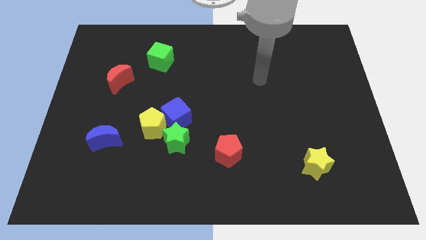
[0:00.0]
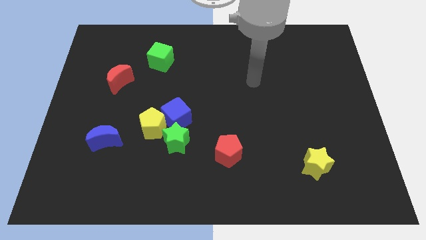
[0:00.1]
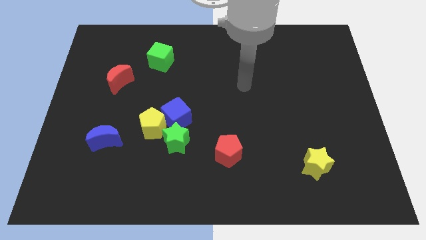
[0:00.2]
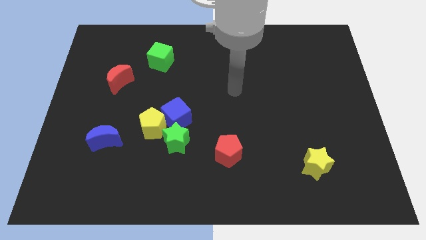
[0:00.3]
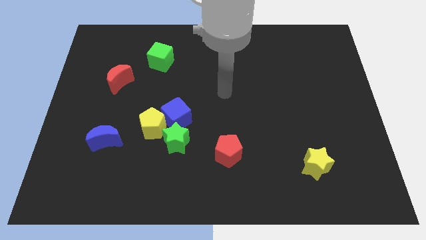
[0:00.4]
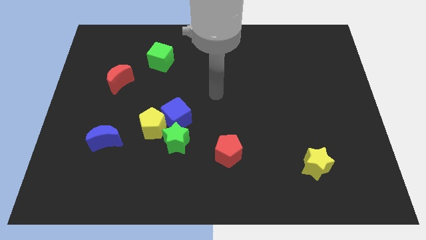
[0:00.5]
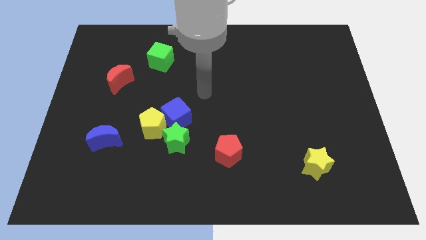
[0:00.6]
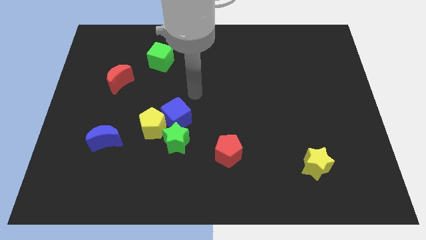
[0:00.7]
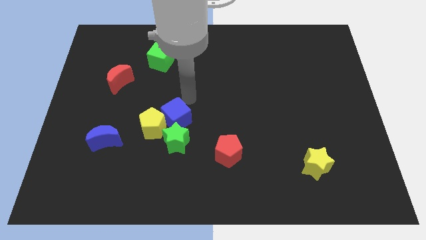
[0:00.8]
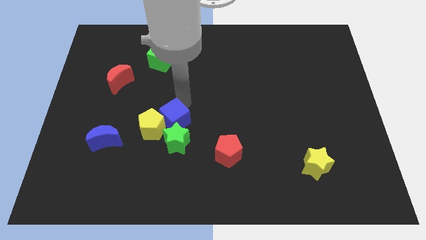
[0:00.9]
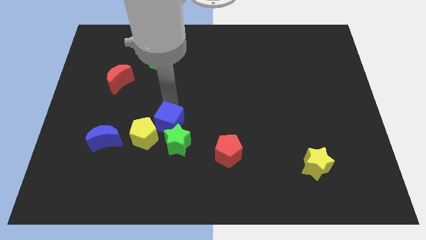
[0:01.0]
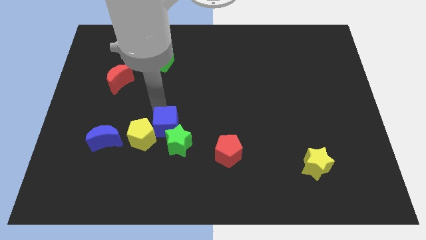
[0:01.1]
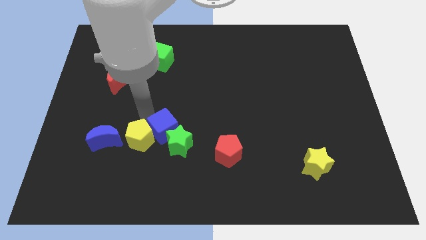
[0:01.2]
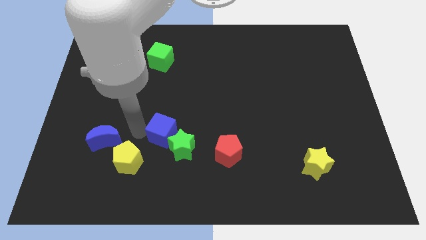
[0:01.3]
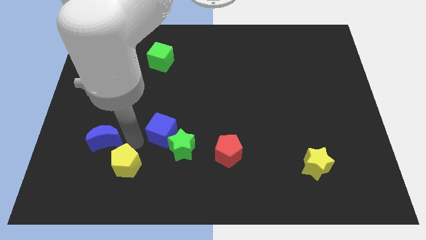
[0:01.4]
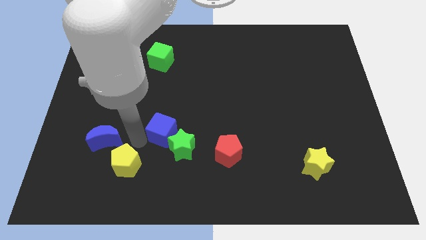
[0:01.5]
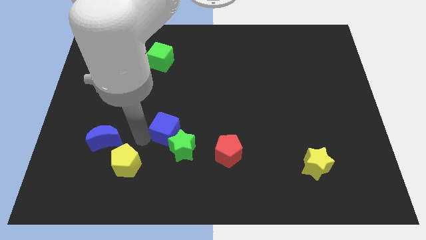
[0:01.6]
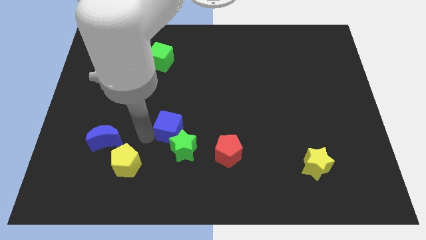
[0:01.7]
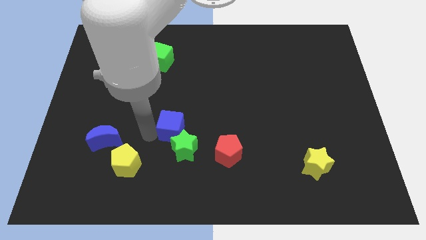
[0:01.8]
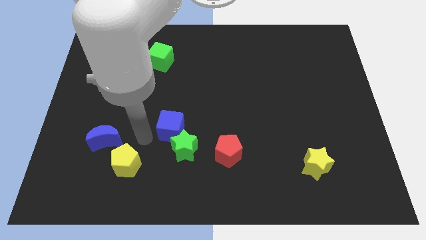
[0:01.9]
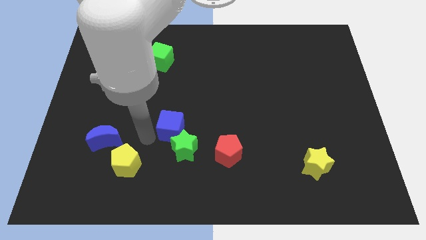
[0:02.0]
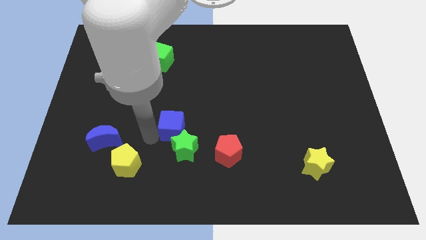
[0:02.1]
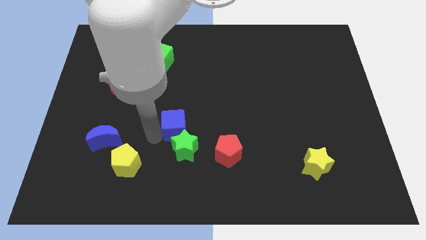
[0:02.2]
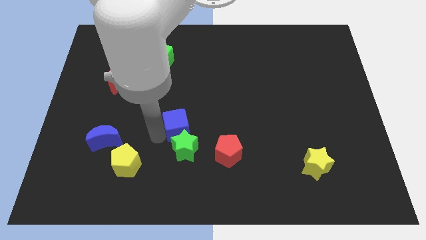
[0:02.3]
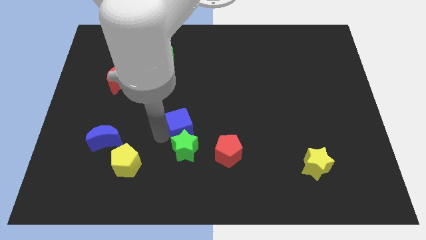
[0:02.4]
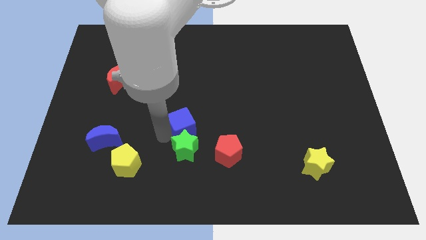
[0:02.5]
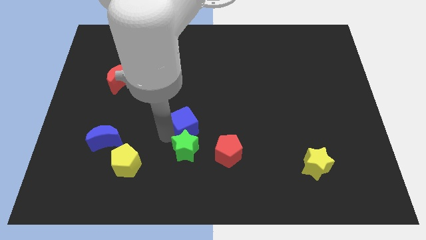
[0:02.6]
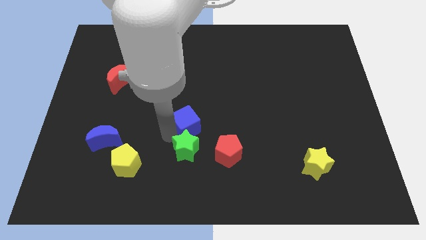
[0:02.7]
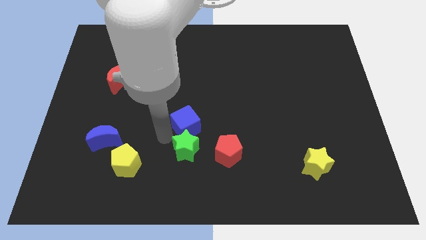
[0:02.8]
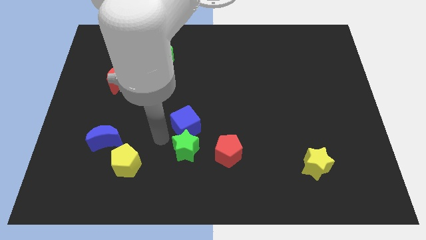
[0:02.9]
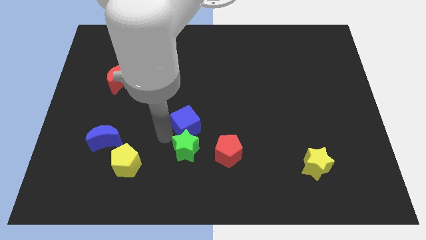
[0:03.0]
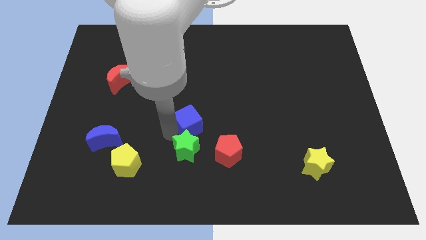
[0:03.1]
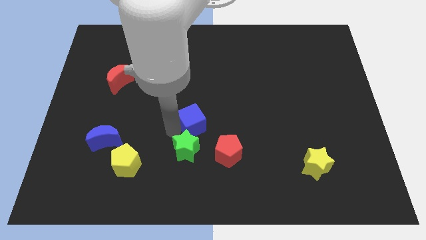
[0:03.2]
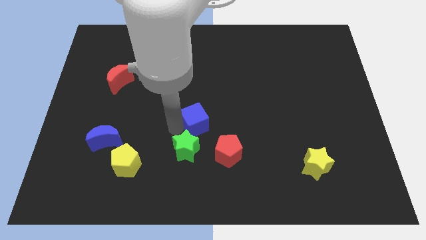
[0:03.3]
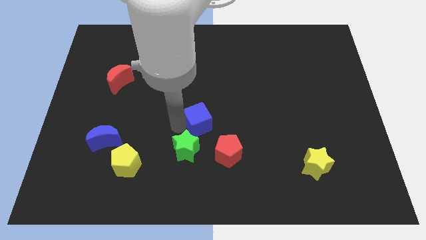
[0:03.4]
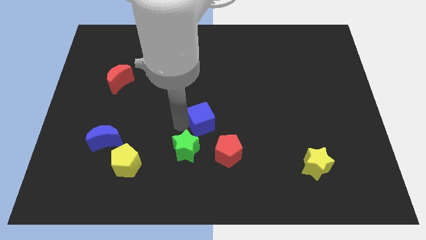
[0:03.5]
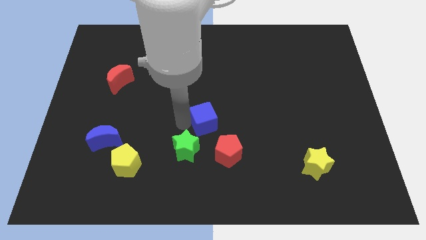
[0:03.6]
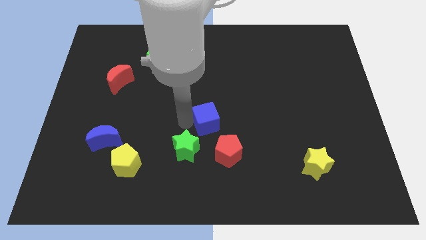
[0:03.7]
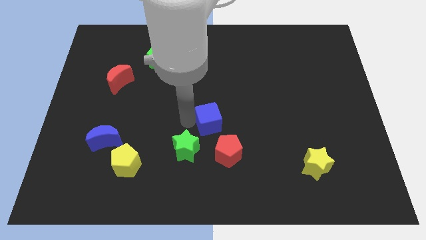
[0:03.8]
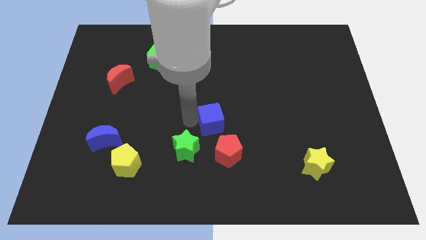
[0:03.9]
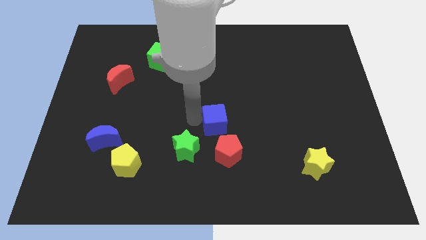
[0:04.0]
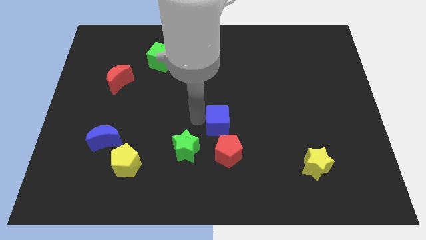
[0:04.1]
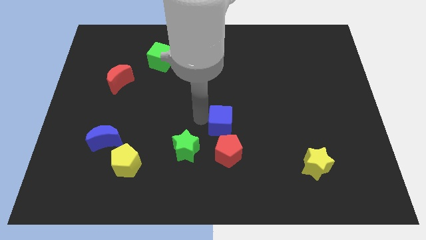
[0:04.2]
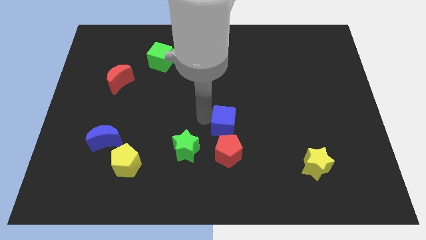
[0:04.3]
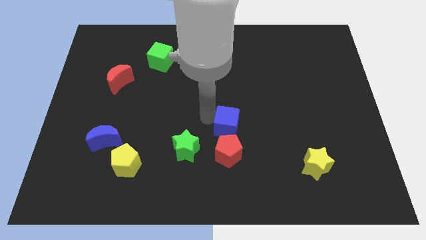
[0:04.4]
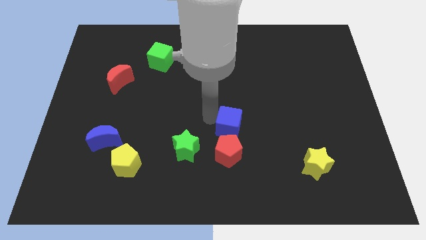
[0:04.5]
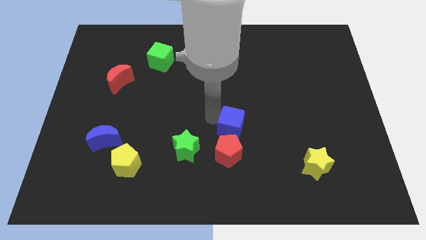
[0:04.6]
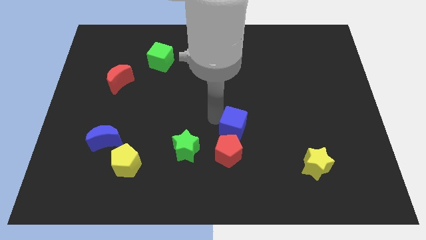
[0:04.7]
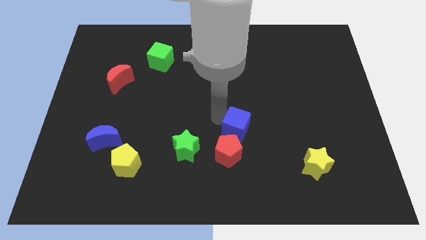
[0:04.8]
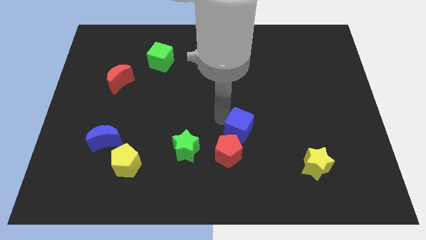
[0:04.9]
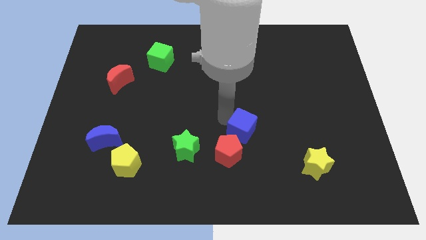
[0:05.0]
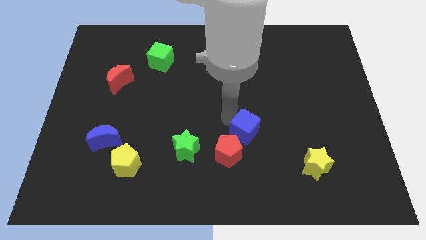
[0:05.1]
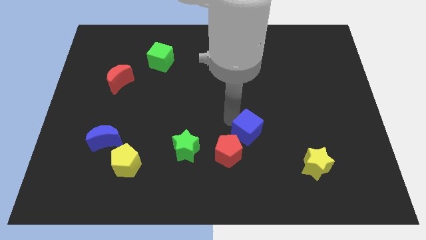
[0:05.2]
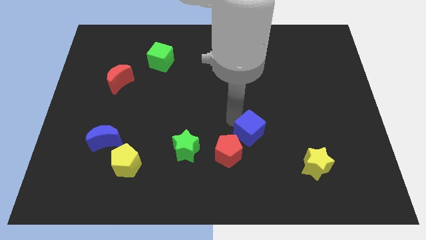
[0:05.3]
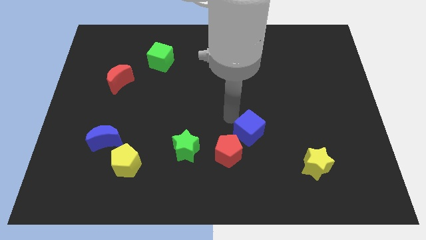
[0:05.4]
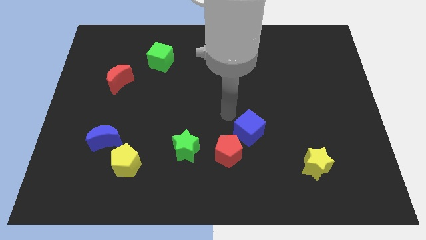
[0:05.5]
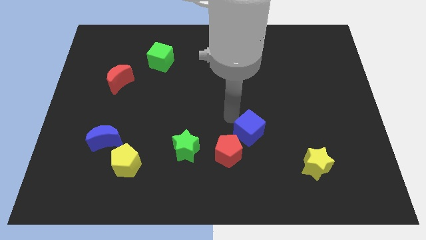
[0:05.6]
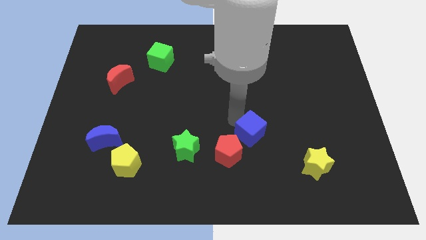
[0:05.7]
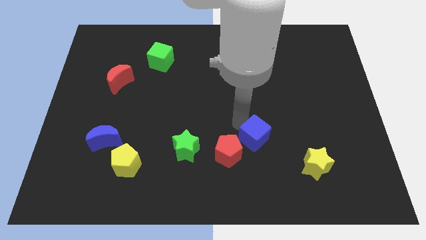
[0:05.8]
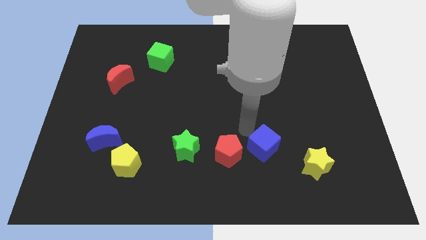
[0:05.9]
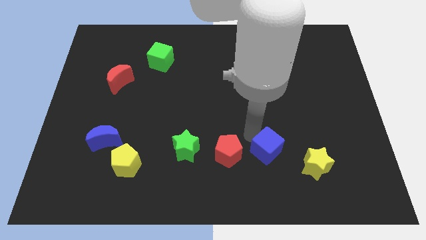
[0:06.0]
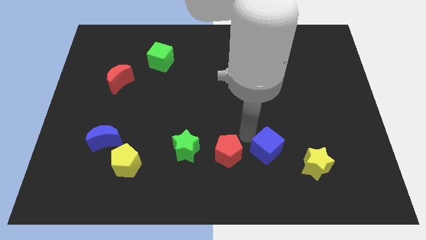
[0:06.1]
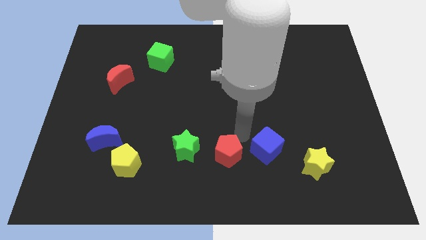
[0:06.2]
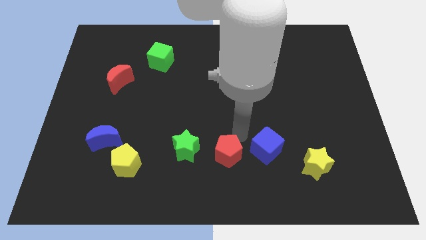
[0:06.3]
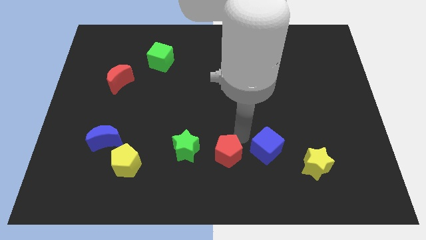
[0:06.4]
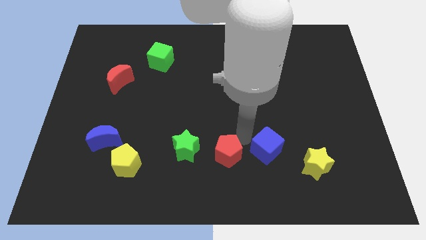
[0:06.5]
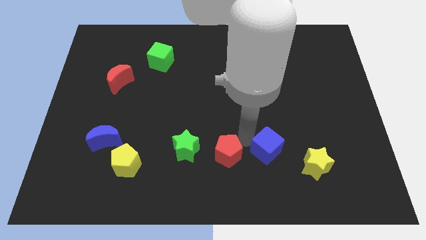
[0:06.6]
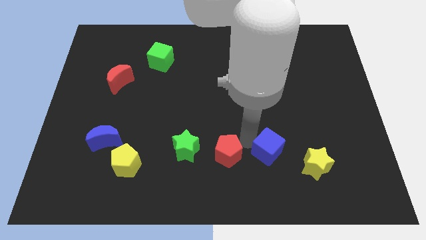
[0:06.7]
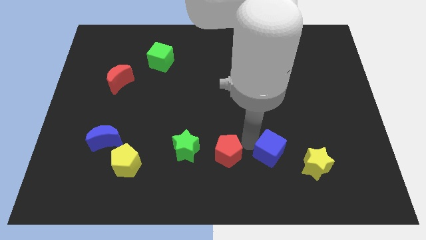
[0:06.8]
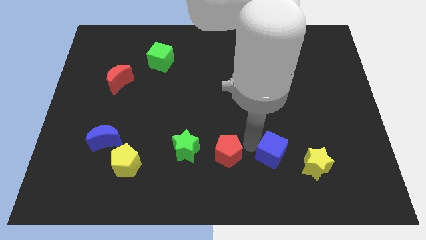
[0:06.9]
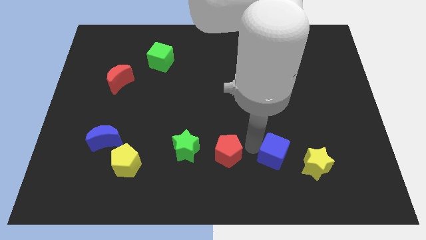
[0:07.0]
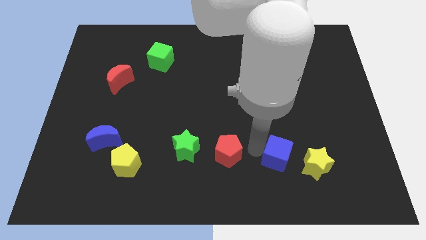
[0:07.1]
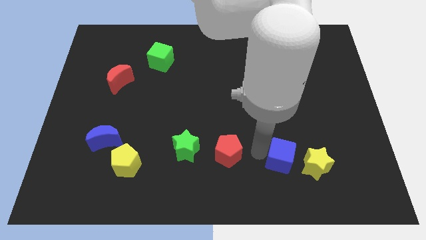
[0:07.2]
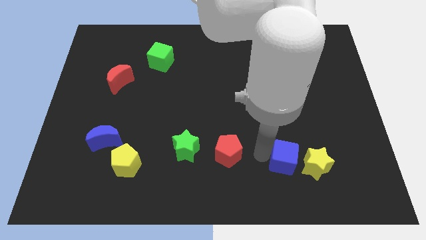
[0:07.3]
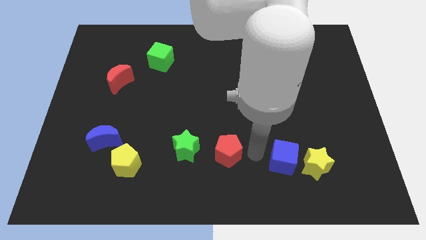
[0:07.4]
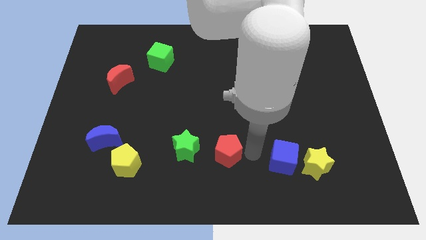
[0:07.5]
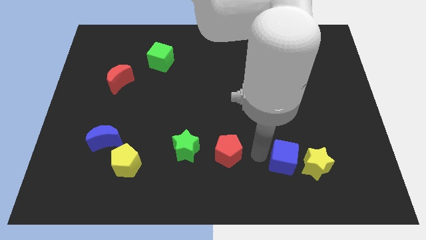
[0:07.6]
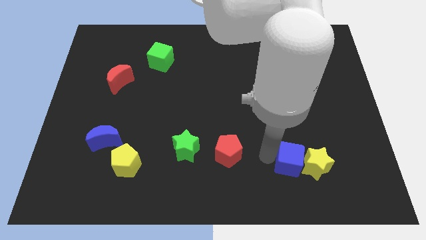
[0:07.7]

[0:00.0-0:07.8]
push the blue cube next to the yellow star
